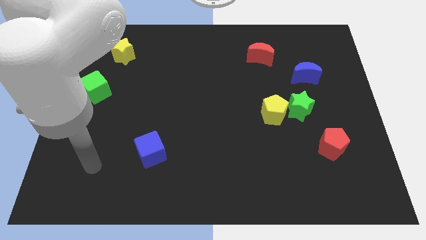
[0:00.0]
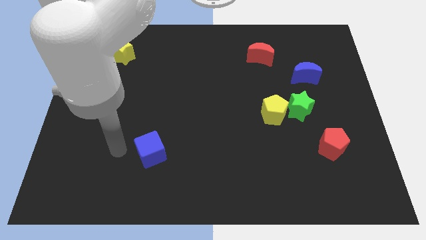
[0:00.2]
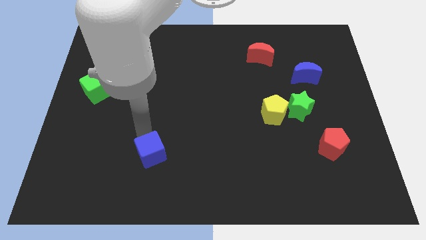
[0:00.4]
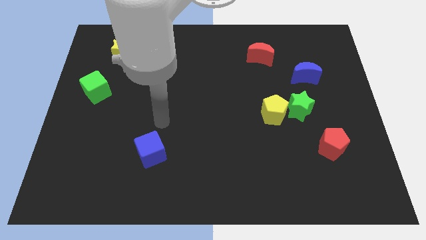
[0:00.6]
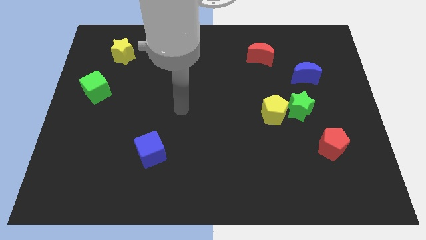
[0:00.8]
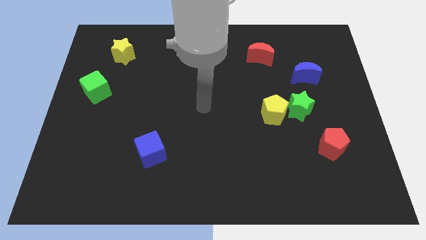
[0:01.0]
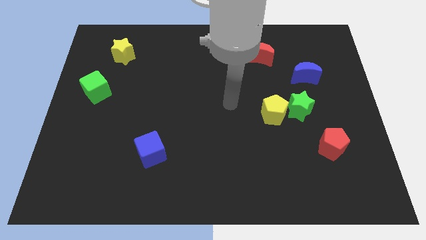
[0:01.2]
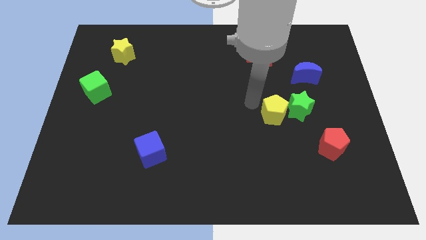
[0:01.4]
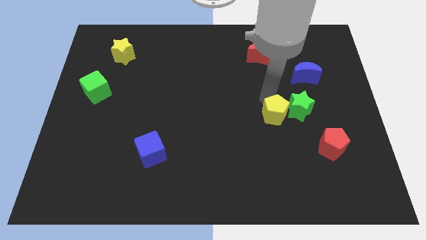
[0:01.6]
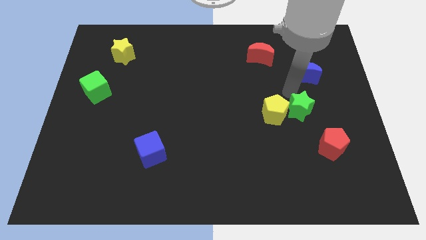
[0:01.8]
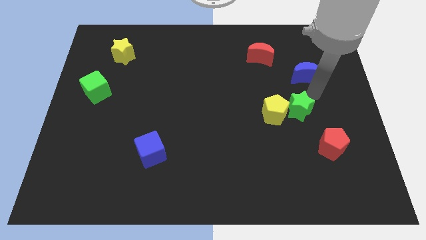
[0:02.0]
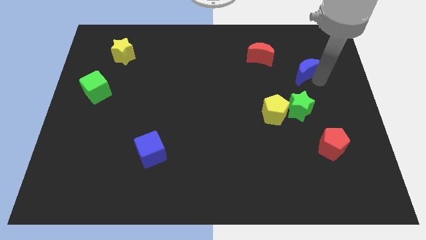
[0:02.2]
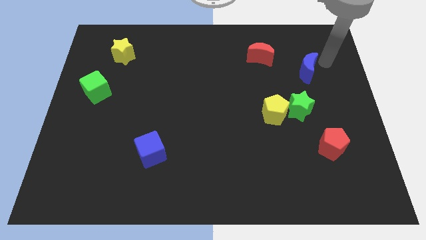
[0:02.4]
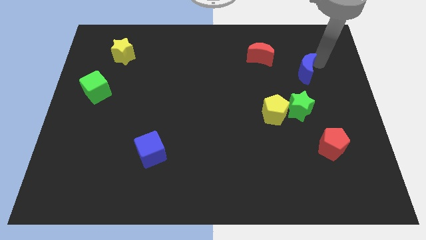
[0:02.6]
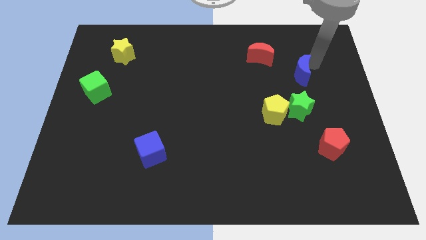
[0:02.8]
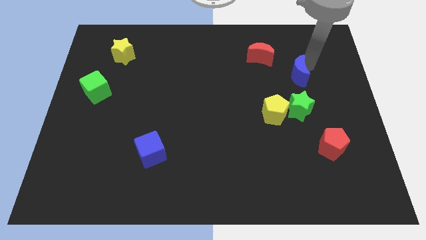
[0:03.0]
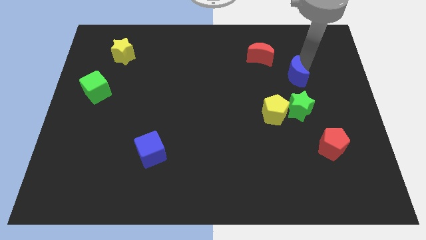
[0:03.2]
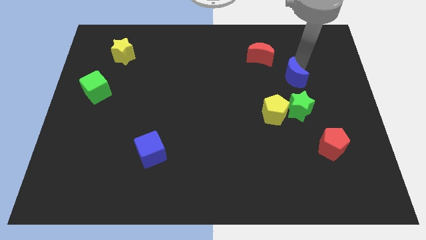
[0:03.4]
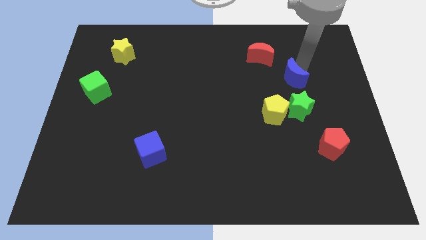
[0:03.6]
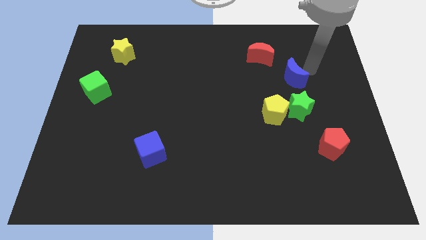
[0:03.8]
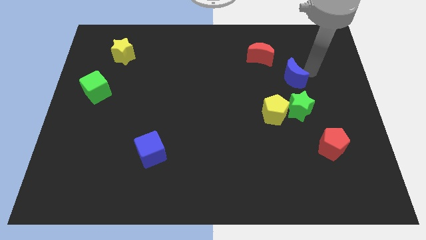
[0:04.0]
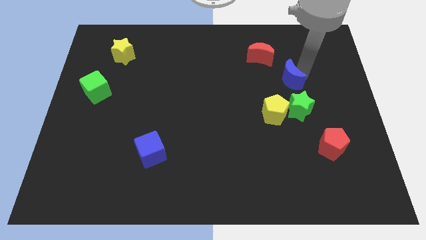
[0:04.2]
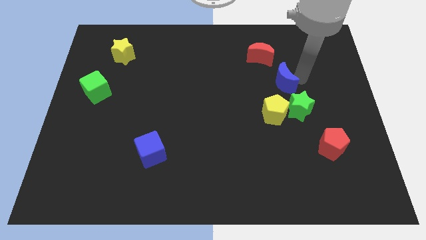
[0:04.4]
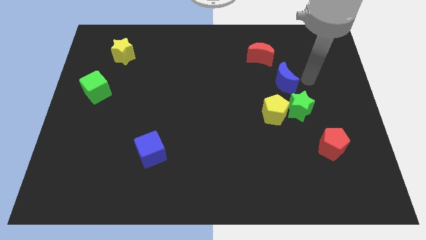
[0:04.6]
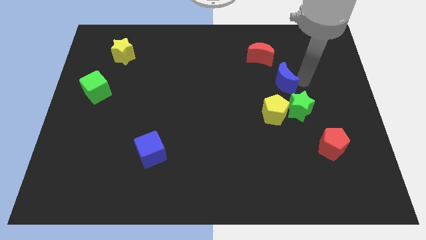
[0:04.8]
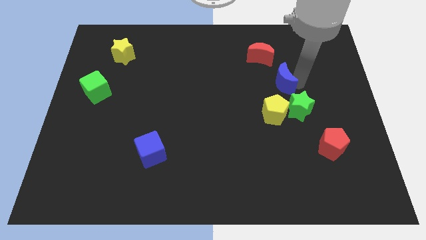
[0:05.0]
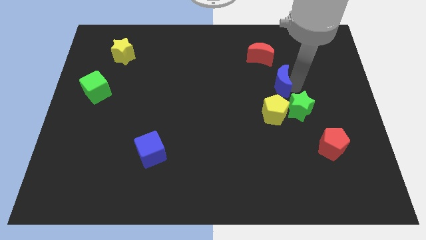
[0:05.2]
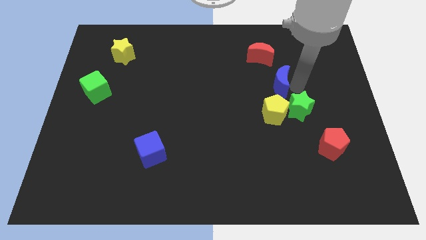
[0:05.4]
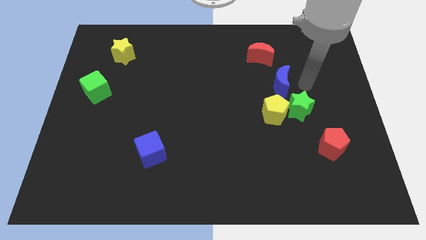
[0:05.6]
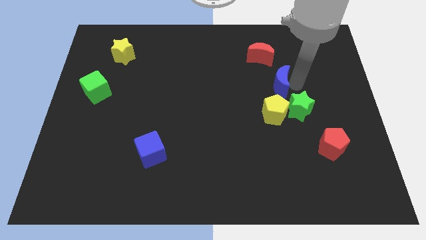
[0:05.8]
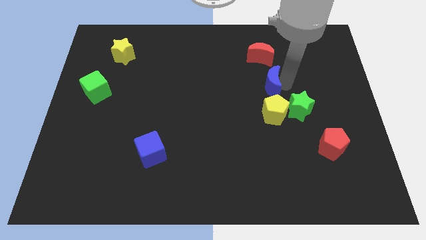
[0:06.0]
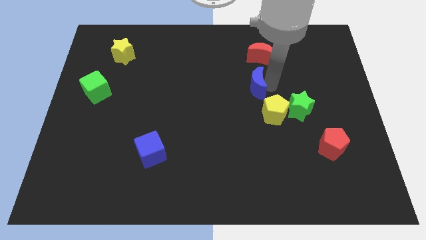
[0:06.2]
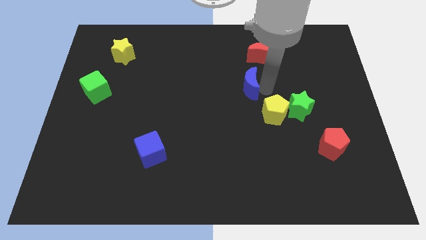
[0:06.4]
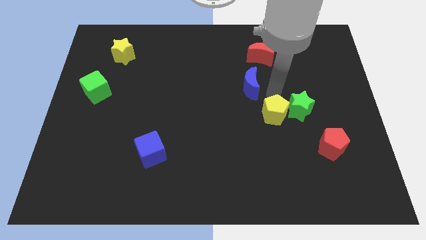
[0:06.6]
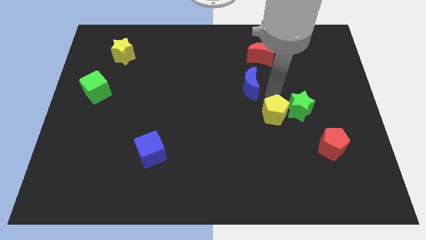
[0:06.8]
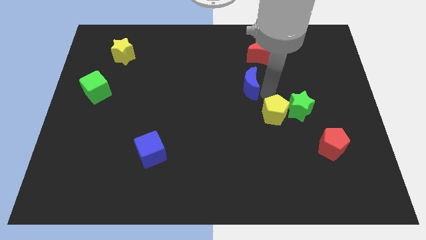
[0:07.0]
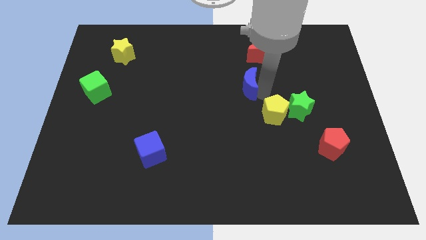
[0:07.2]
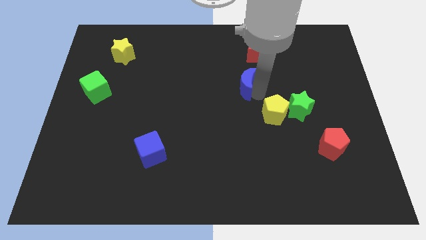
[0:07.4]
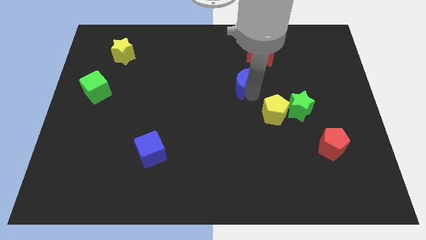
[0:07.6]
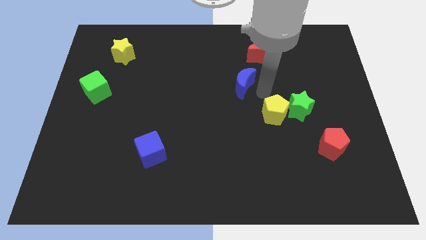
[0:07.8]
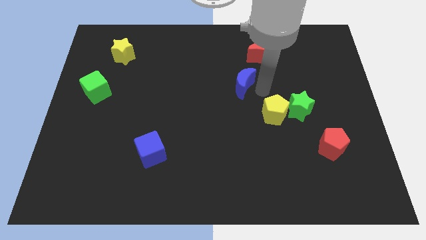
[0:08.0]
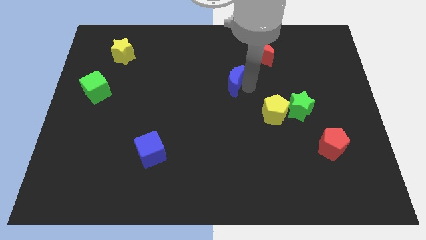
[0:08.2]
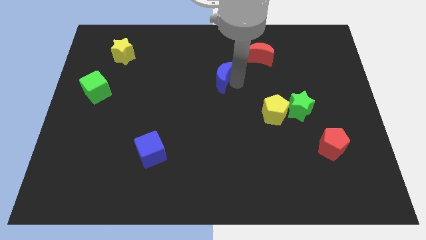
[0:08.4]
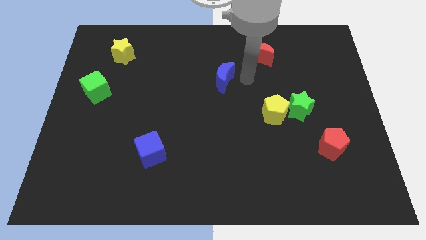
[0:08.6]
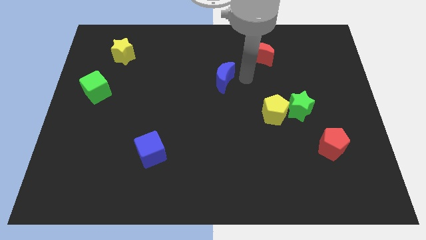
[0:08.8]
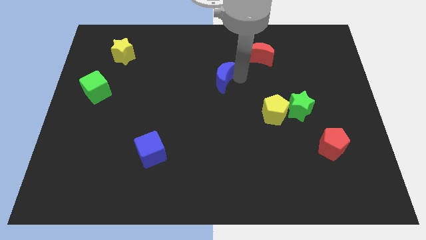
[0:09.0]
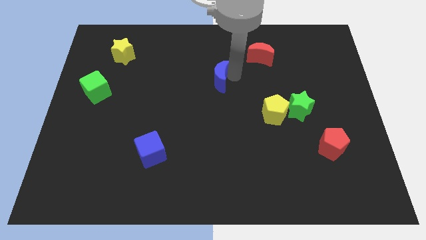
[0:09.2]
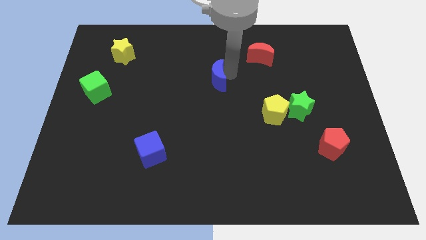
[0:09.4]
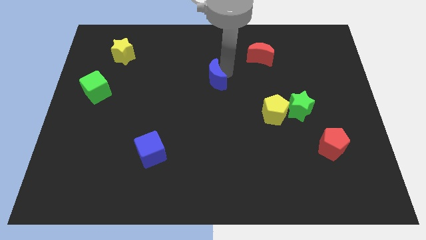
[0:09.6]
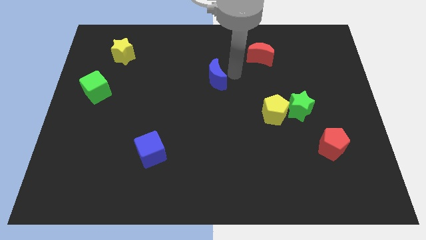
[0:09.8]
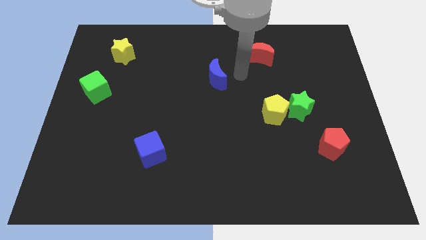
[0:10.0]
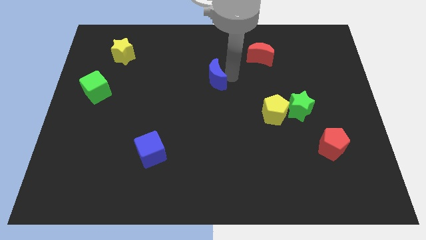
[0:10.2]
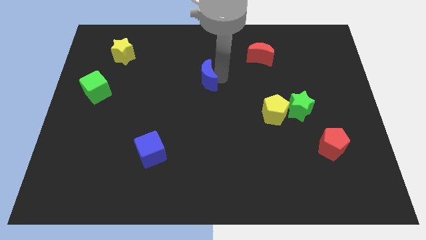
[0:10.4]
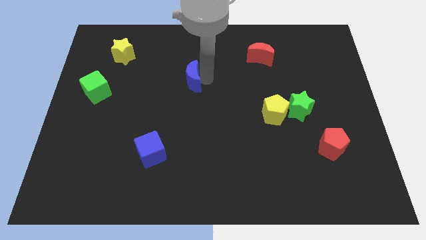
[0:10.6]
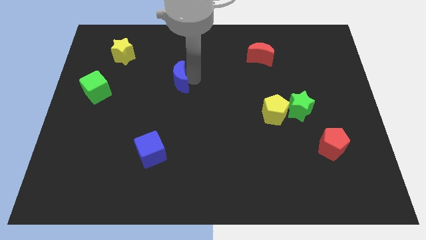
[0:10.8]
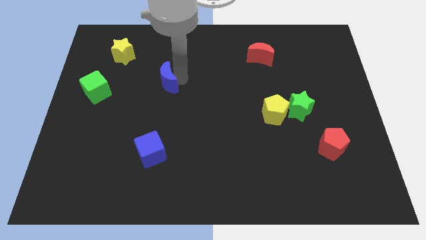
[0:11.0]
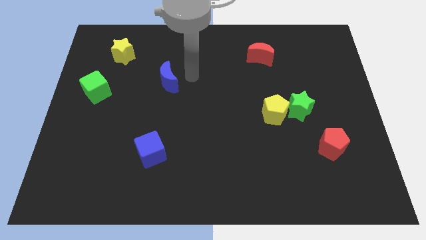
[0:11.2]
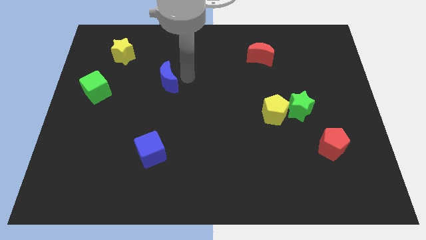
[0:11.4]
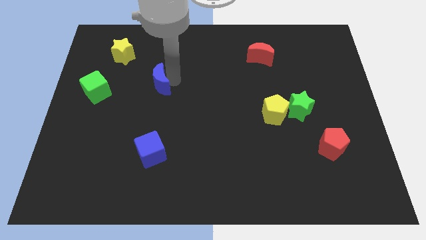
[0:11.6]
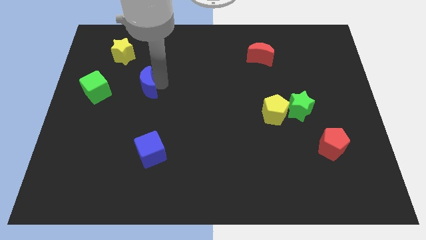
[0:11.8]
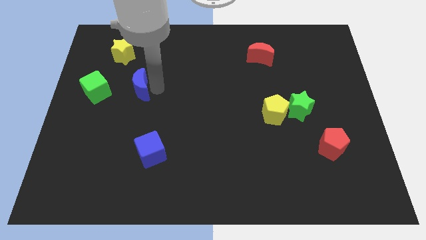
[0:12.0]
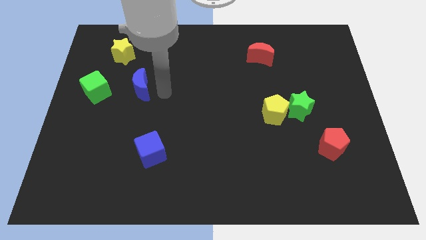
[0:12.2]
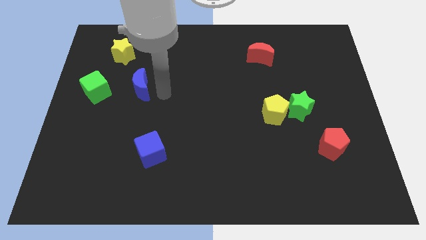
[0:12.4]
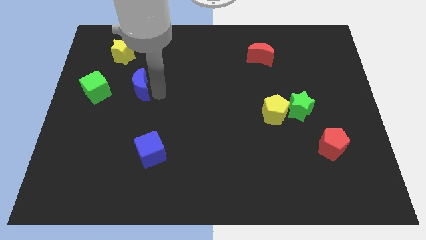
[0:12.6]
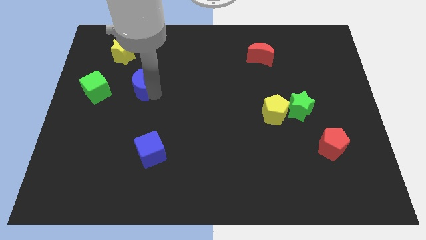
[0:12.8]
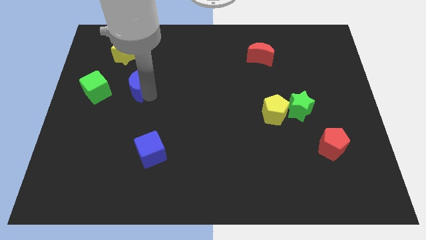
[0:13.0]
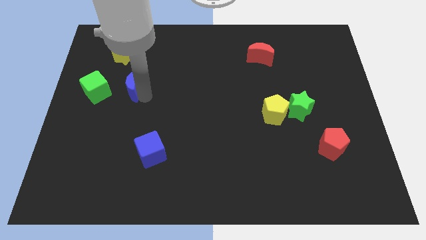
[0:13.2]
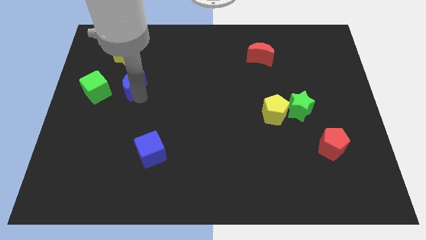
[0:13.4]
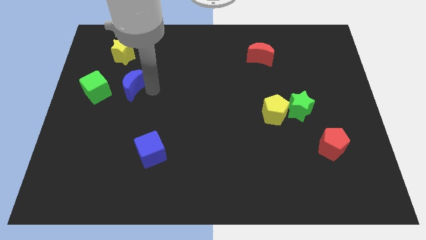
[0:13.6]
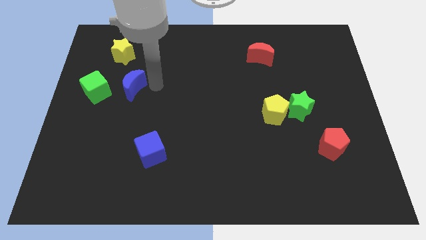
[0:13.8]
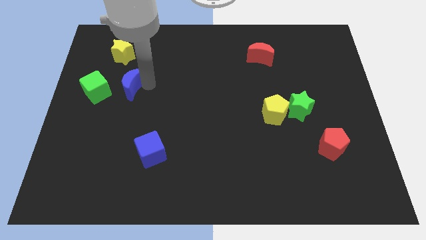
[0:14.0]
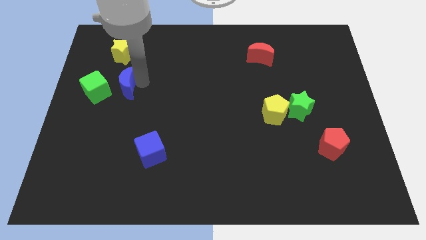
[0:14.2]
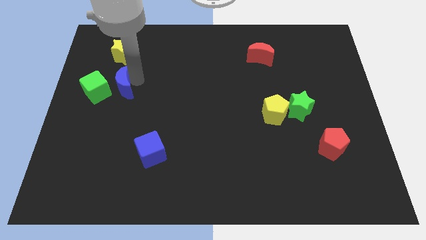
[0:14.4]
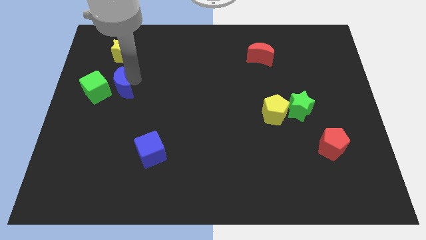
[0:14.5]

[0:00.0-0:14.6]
slide the blue moon to the green cube
